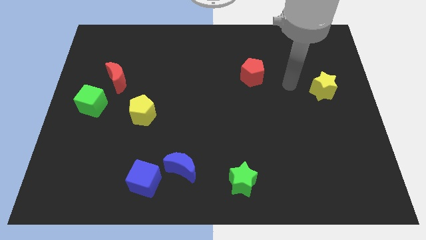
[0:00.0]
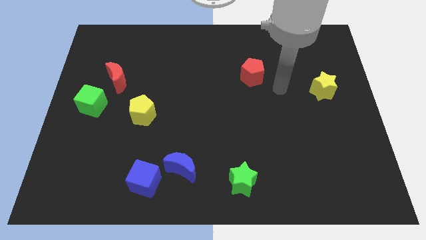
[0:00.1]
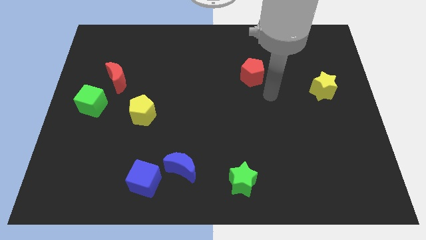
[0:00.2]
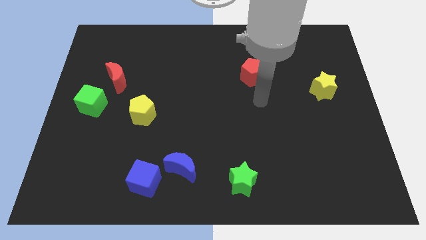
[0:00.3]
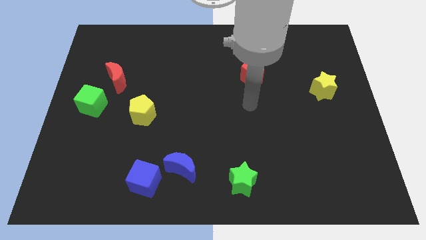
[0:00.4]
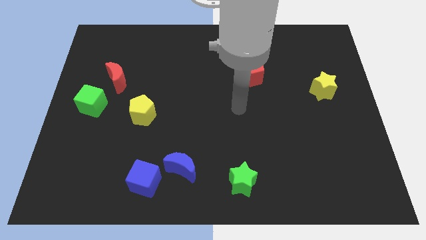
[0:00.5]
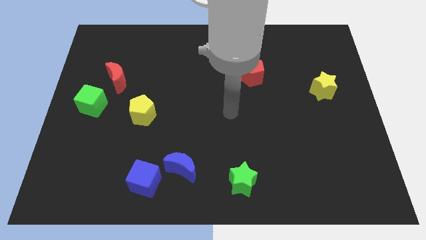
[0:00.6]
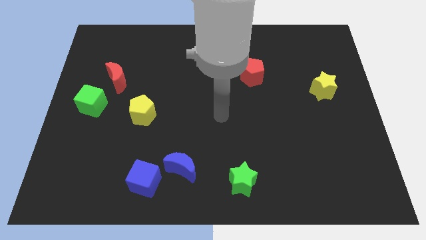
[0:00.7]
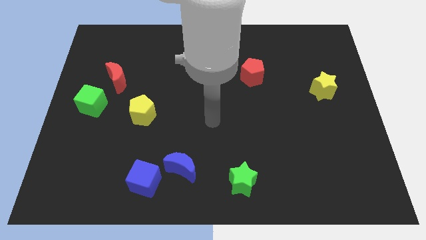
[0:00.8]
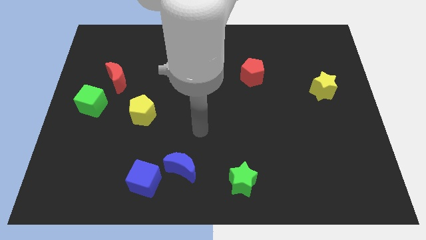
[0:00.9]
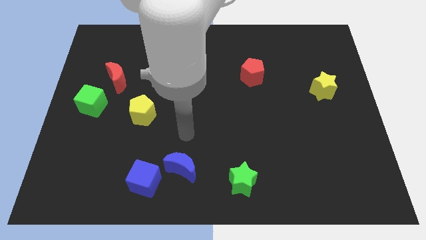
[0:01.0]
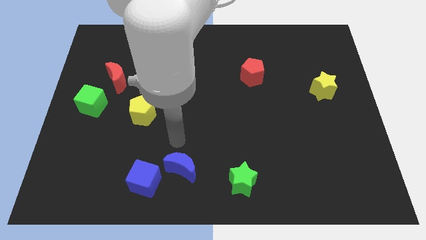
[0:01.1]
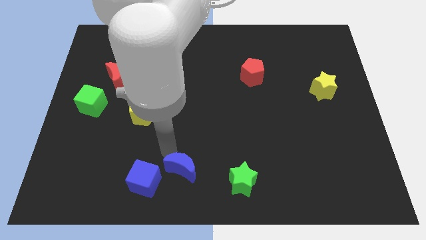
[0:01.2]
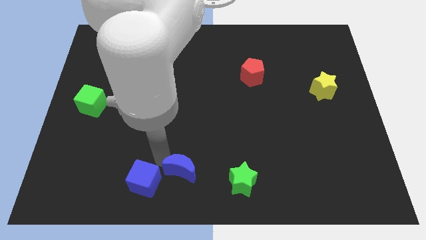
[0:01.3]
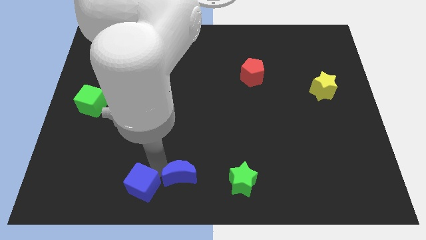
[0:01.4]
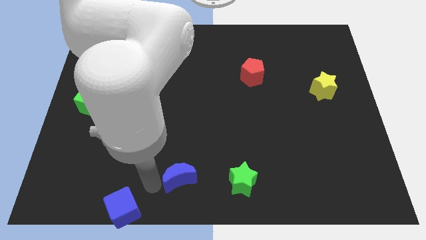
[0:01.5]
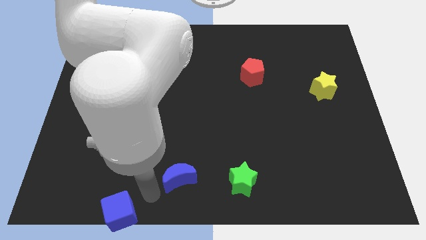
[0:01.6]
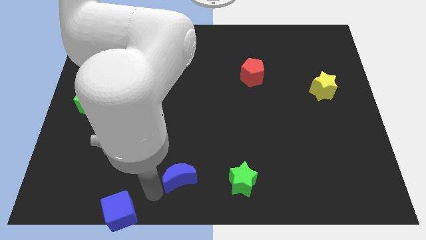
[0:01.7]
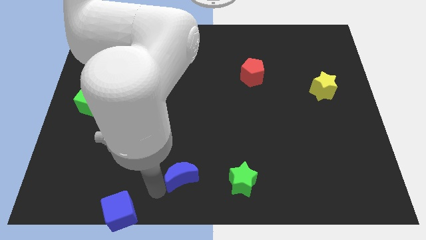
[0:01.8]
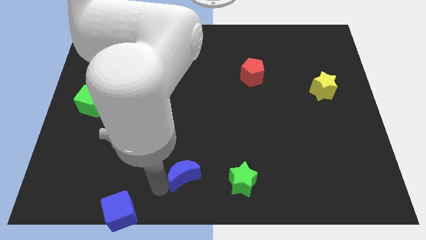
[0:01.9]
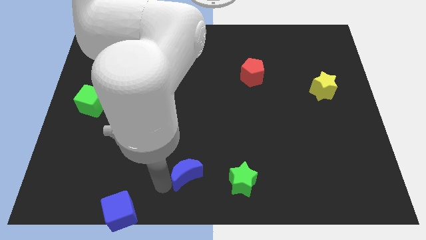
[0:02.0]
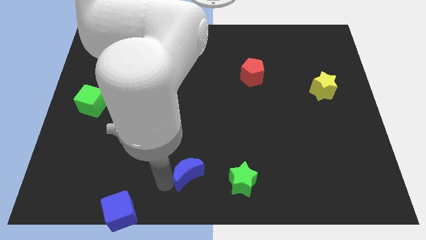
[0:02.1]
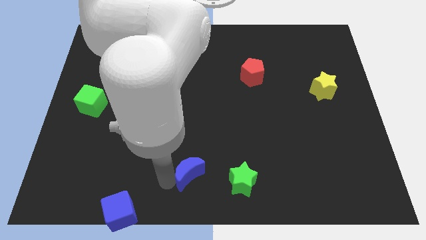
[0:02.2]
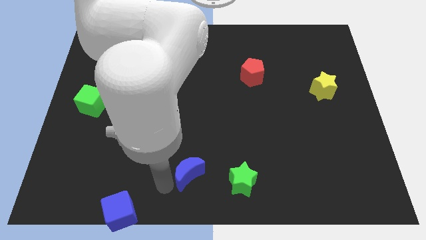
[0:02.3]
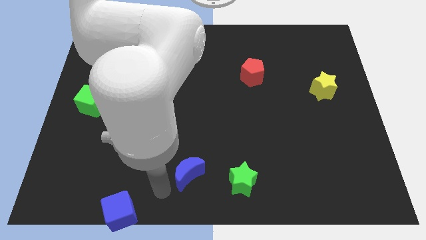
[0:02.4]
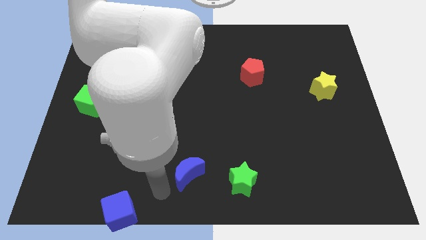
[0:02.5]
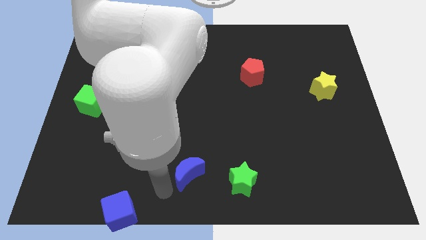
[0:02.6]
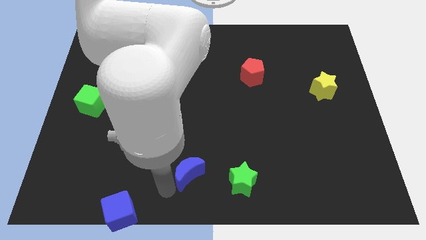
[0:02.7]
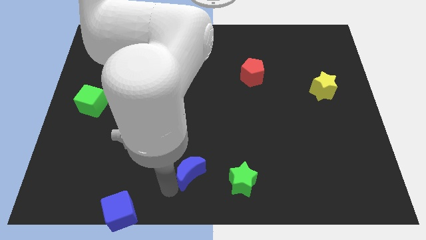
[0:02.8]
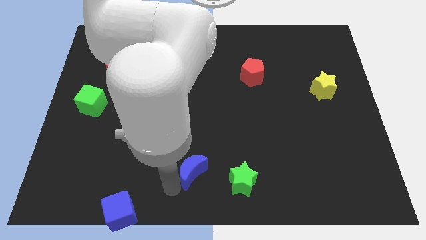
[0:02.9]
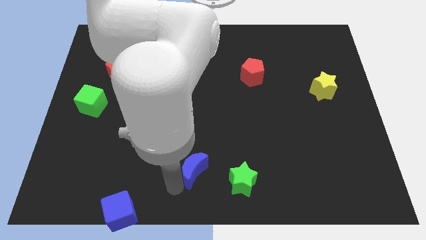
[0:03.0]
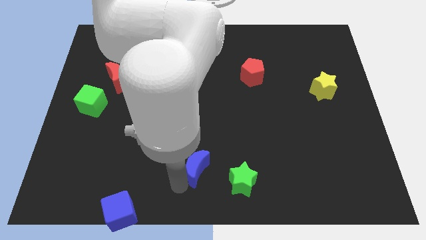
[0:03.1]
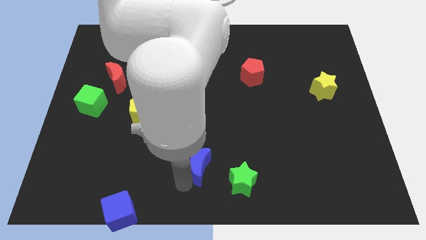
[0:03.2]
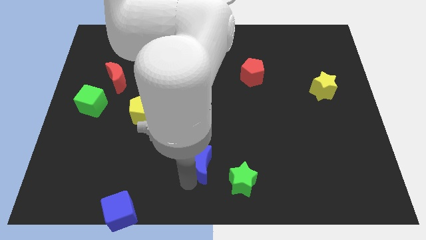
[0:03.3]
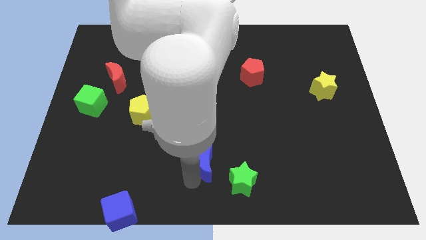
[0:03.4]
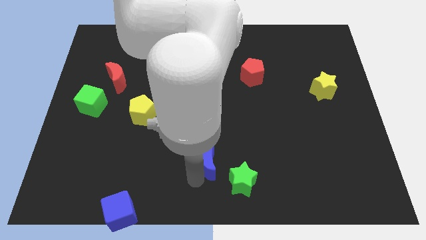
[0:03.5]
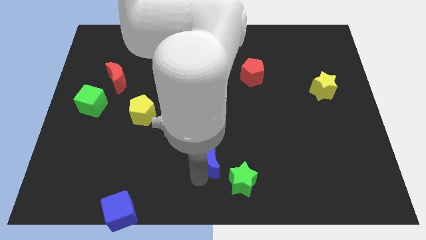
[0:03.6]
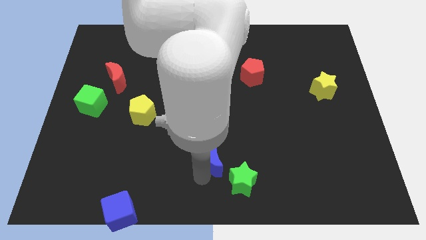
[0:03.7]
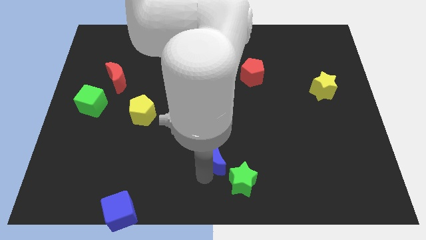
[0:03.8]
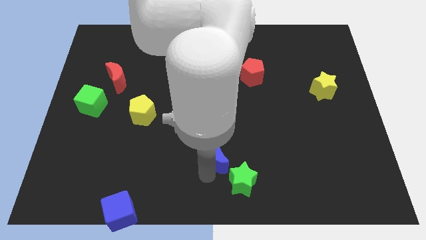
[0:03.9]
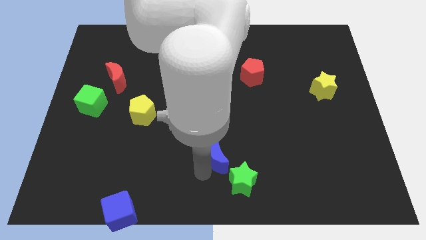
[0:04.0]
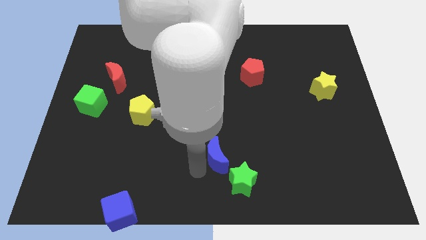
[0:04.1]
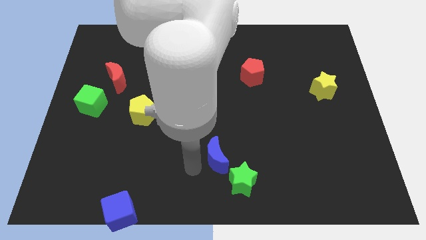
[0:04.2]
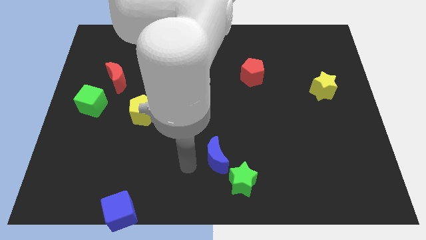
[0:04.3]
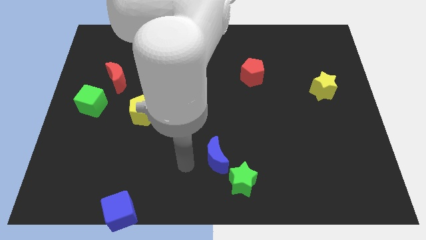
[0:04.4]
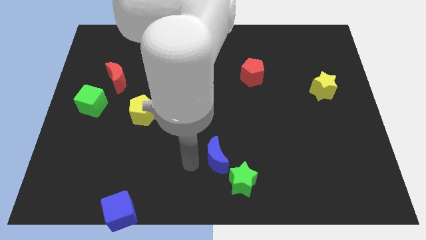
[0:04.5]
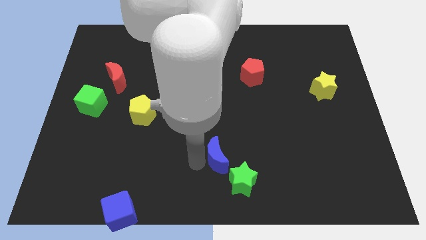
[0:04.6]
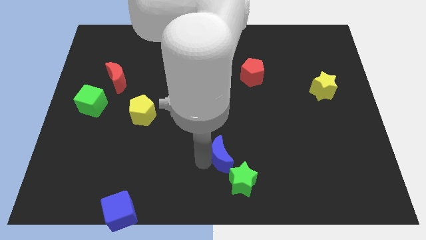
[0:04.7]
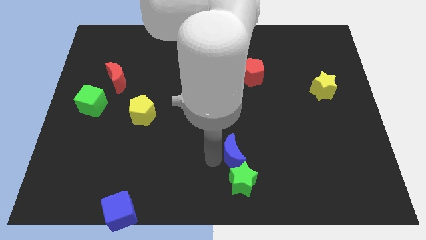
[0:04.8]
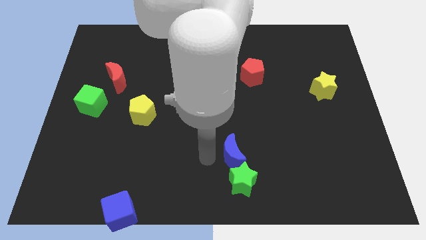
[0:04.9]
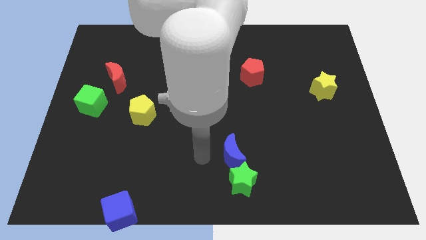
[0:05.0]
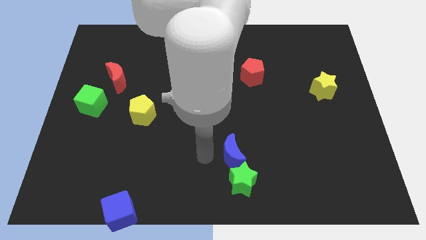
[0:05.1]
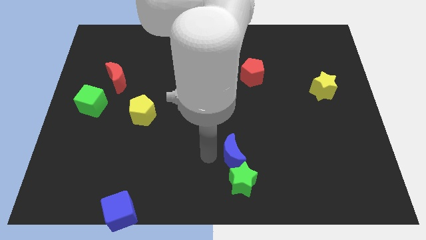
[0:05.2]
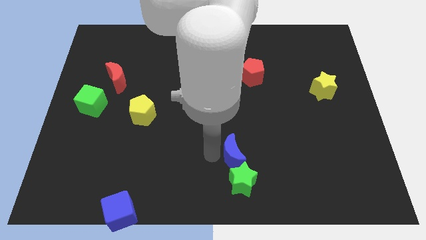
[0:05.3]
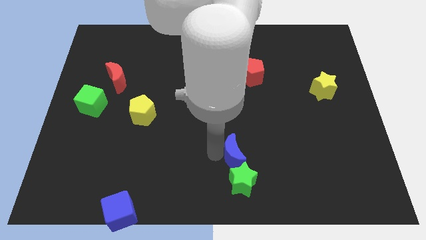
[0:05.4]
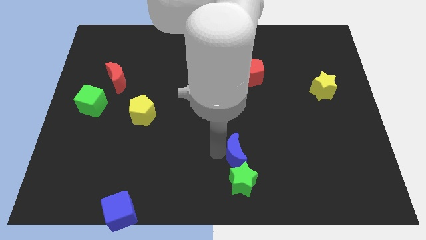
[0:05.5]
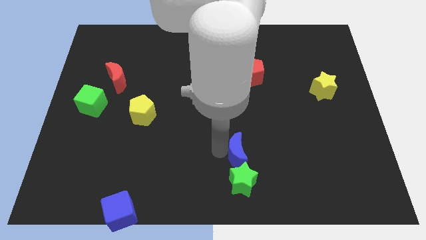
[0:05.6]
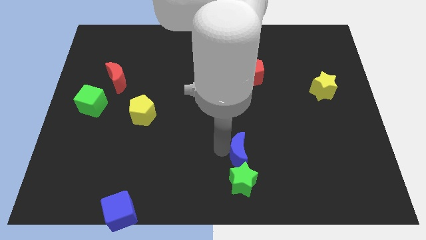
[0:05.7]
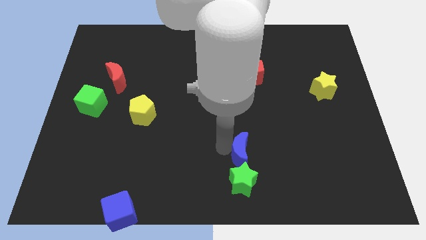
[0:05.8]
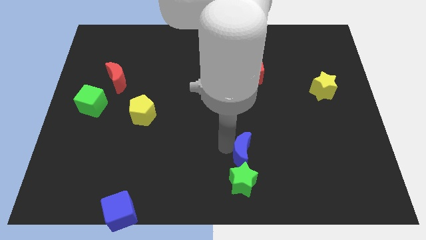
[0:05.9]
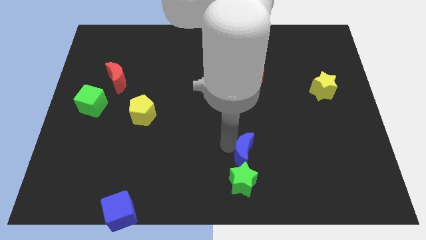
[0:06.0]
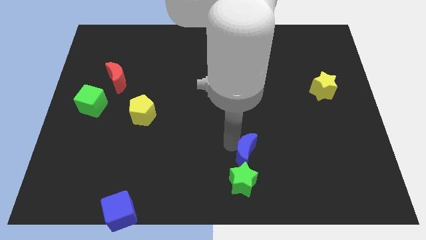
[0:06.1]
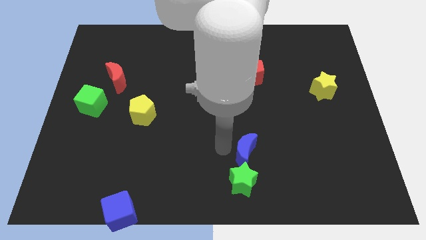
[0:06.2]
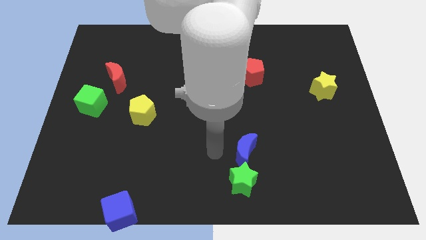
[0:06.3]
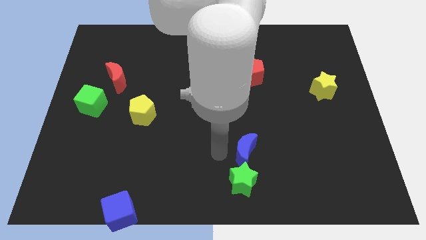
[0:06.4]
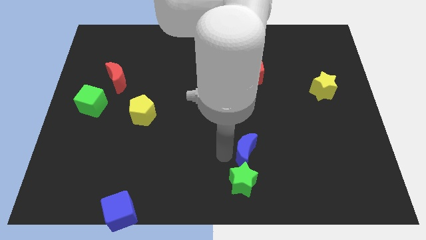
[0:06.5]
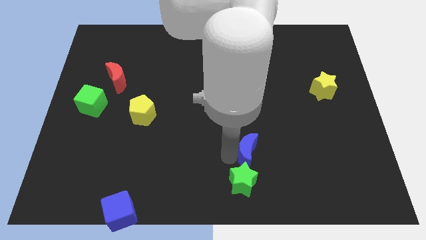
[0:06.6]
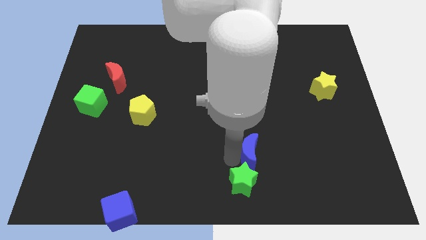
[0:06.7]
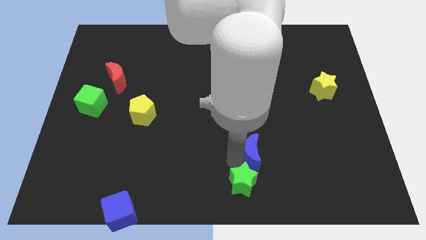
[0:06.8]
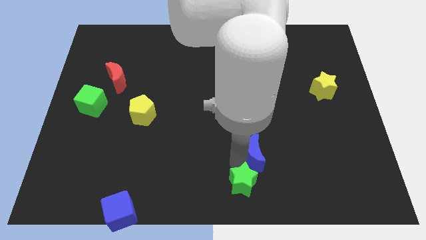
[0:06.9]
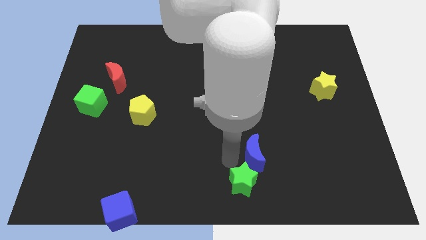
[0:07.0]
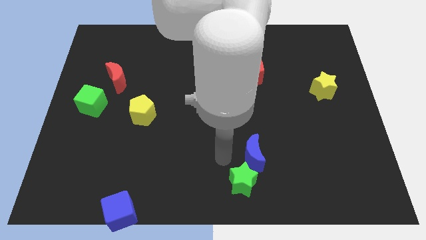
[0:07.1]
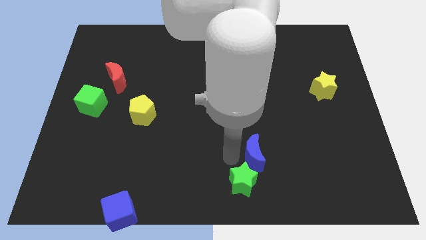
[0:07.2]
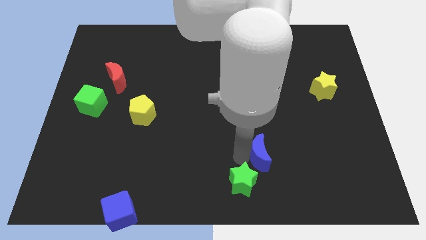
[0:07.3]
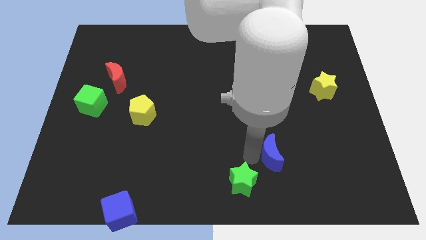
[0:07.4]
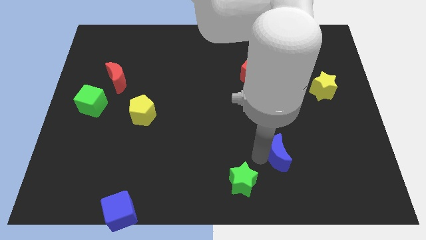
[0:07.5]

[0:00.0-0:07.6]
slide the blue moon to the right
